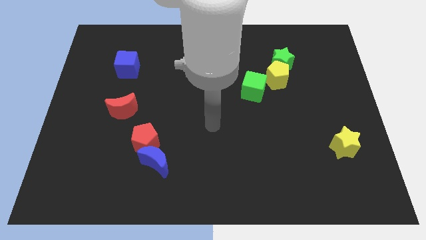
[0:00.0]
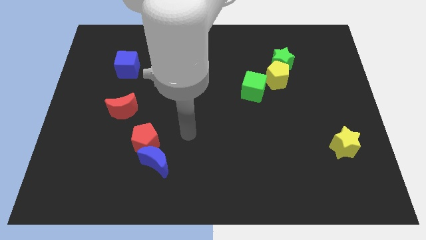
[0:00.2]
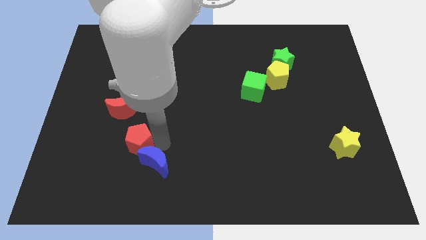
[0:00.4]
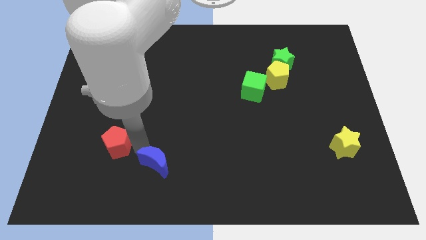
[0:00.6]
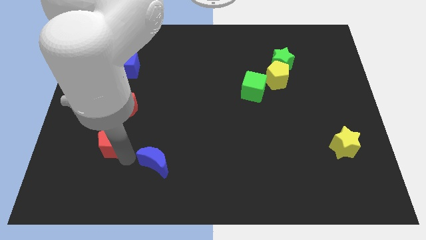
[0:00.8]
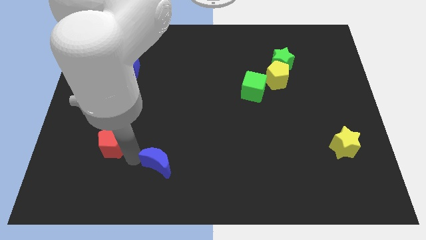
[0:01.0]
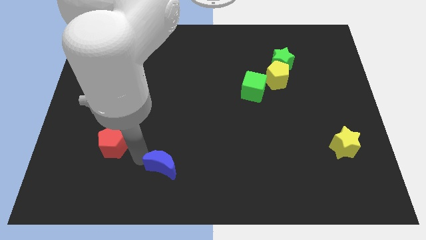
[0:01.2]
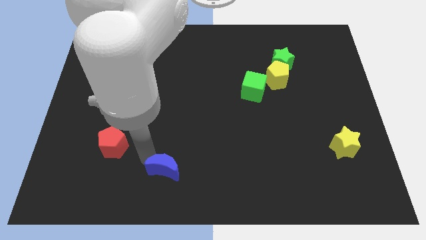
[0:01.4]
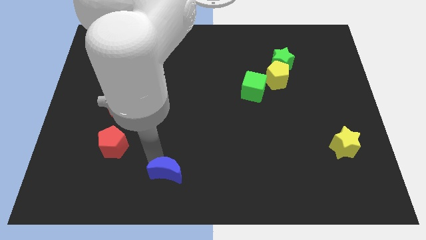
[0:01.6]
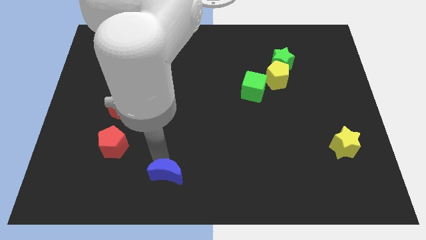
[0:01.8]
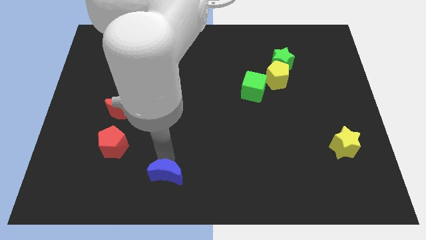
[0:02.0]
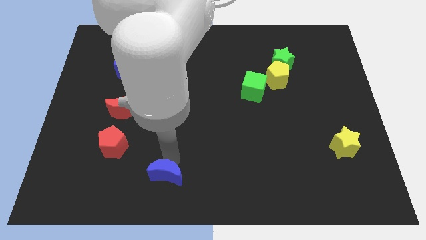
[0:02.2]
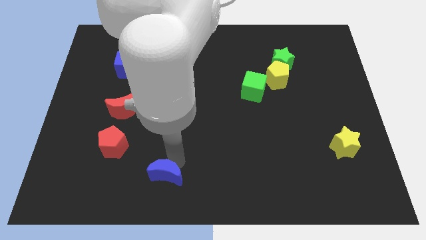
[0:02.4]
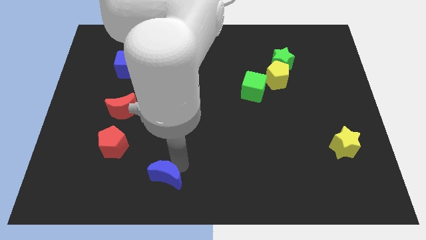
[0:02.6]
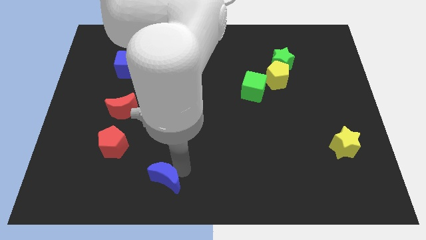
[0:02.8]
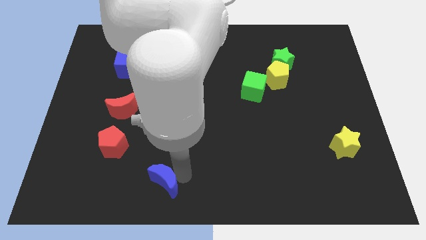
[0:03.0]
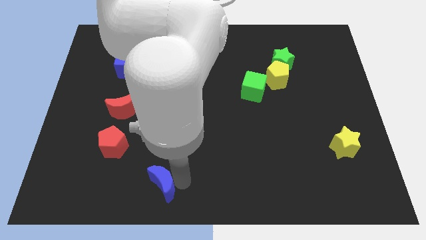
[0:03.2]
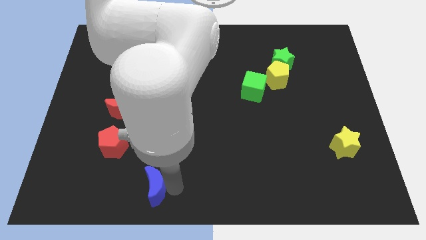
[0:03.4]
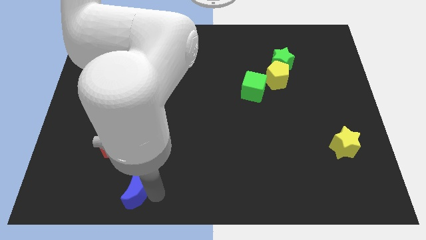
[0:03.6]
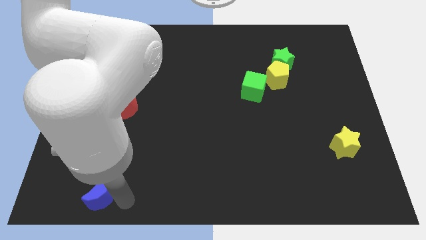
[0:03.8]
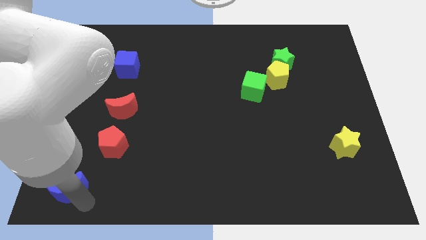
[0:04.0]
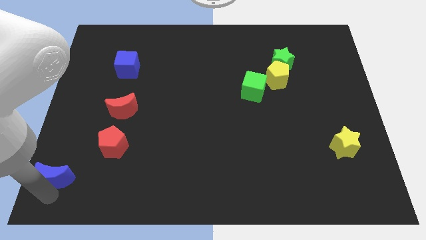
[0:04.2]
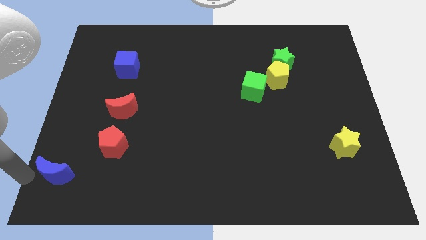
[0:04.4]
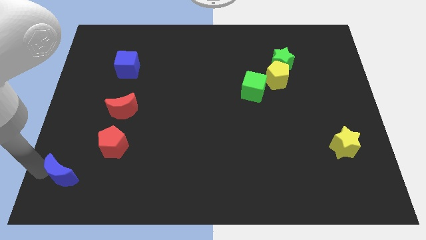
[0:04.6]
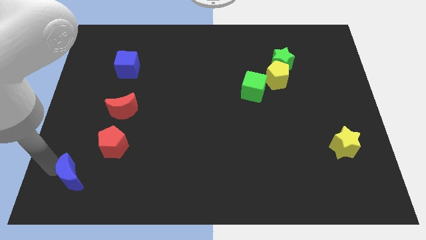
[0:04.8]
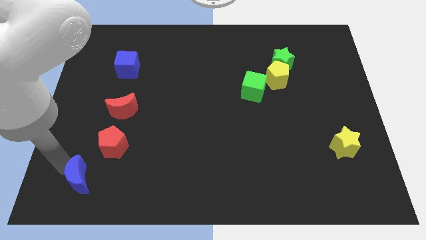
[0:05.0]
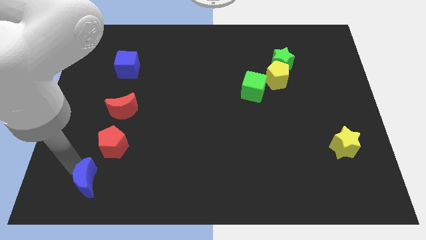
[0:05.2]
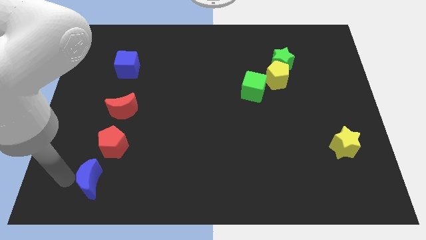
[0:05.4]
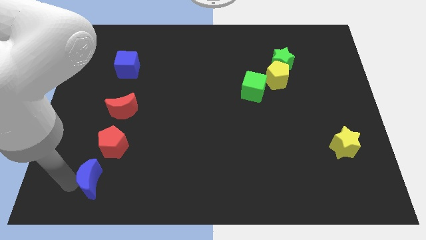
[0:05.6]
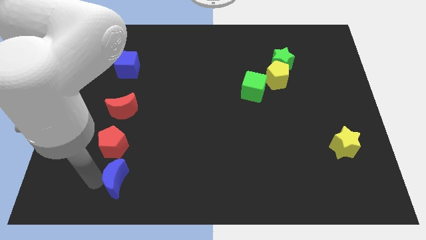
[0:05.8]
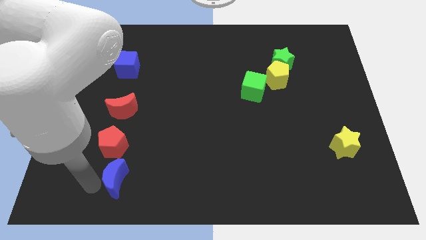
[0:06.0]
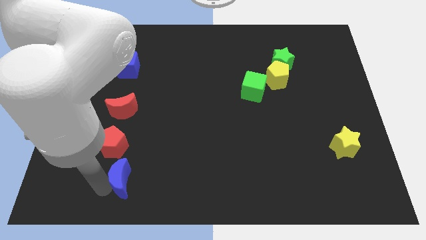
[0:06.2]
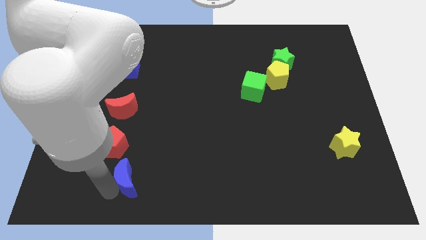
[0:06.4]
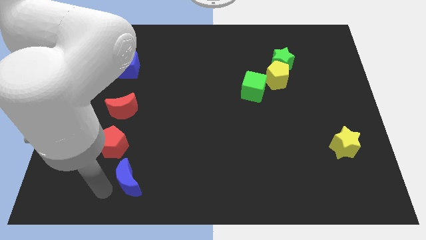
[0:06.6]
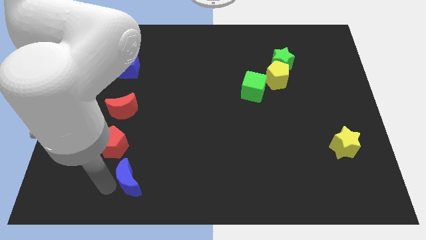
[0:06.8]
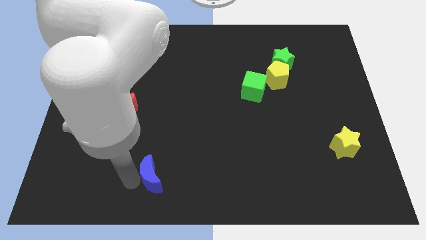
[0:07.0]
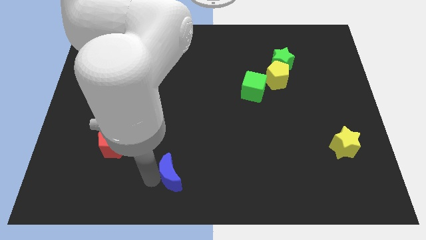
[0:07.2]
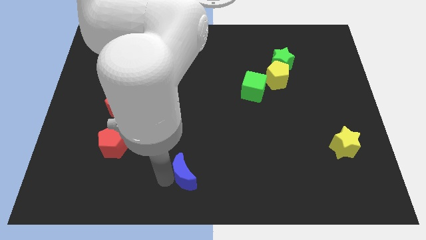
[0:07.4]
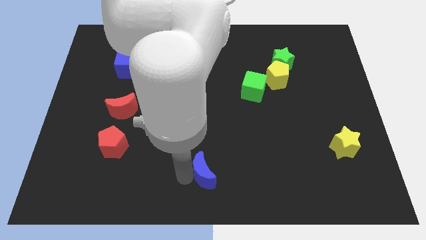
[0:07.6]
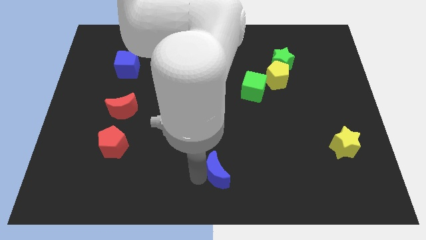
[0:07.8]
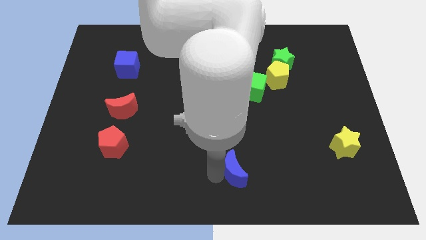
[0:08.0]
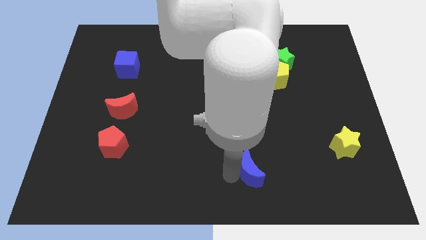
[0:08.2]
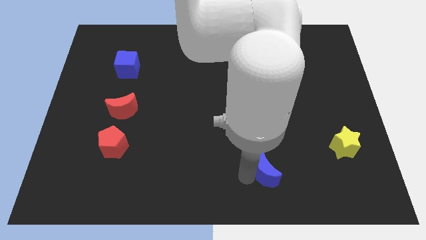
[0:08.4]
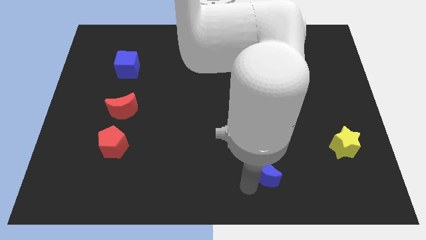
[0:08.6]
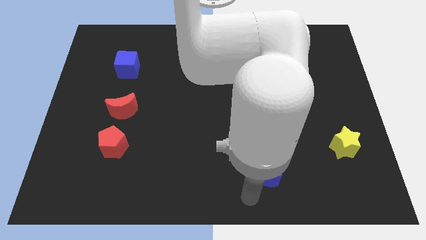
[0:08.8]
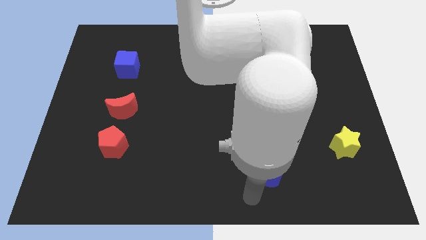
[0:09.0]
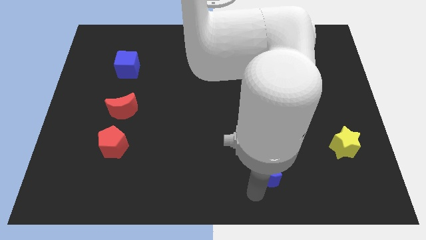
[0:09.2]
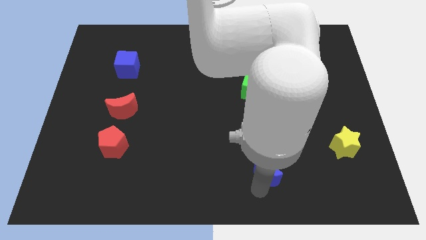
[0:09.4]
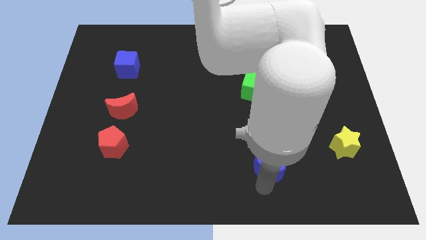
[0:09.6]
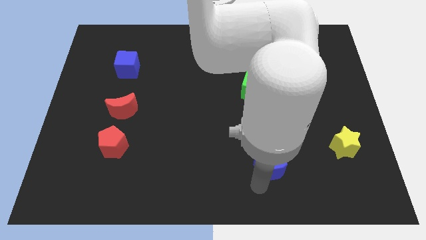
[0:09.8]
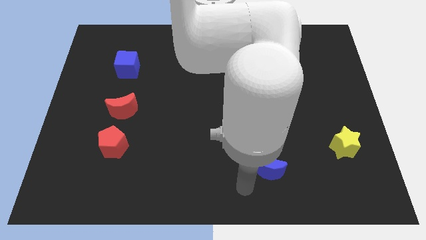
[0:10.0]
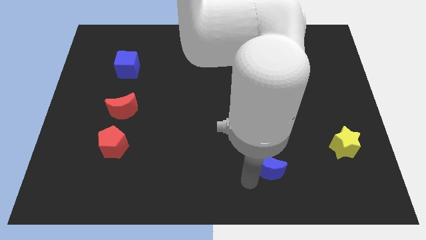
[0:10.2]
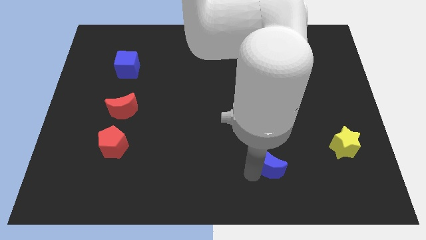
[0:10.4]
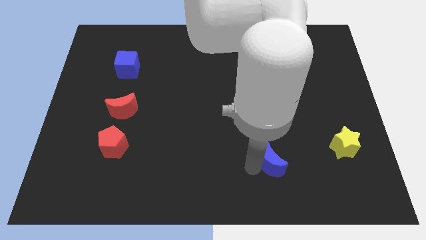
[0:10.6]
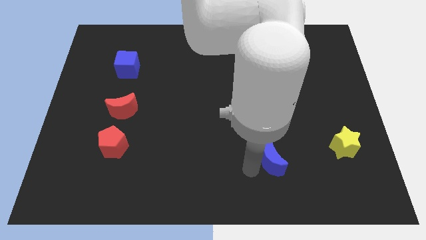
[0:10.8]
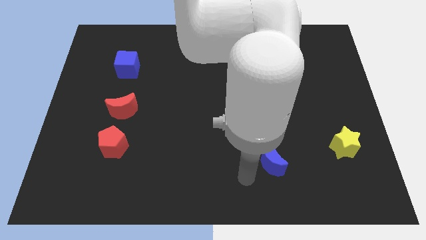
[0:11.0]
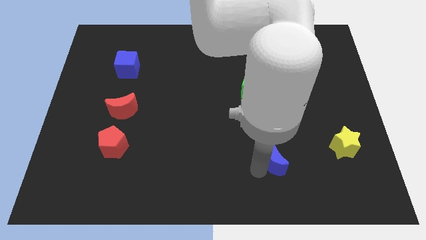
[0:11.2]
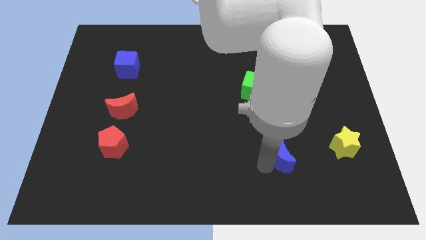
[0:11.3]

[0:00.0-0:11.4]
push the blue moon just left of the yellow star
